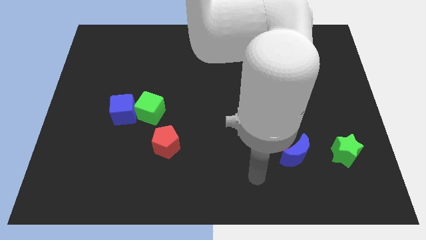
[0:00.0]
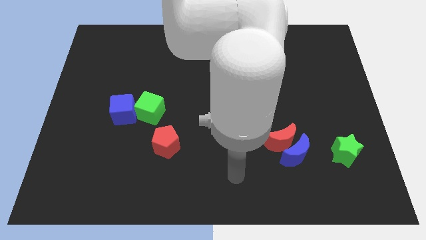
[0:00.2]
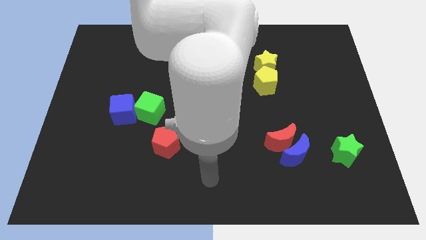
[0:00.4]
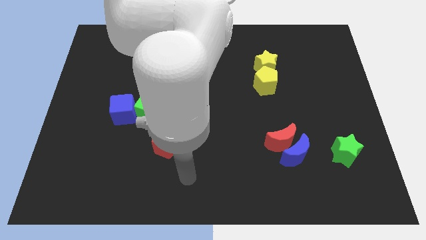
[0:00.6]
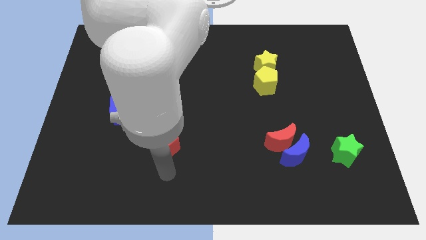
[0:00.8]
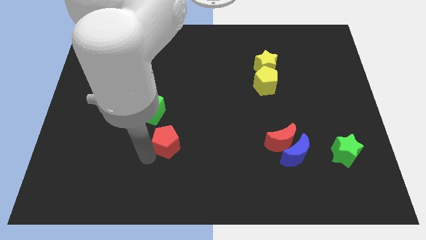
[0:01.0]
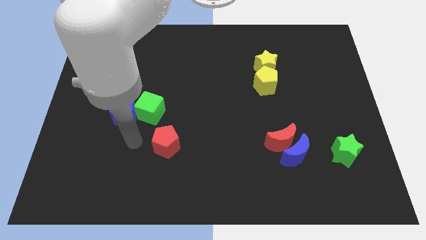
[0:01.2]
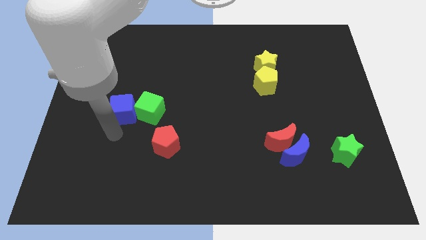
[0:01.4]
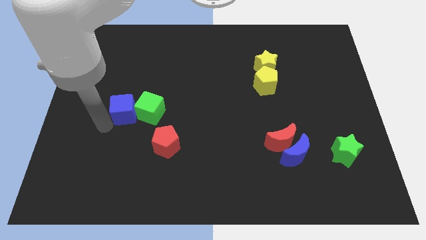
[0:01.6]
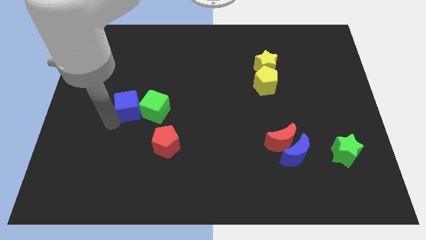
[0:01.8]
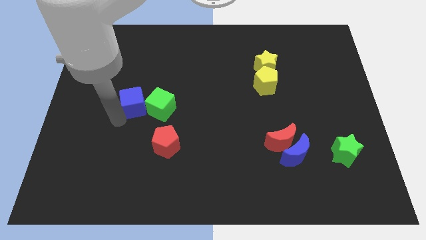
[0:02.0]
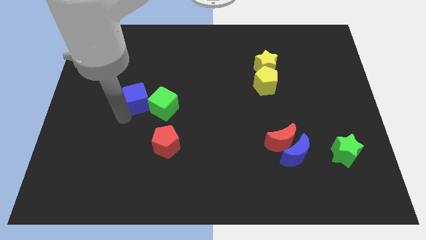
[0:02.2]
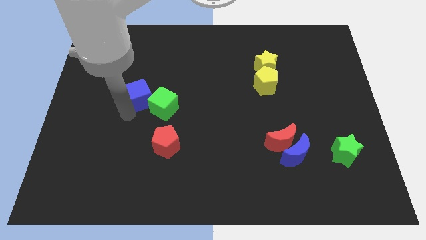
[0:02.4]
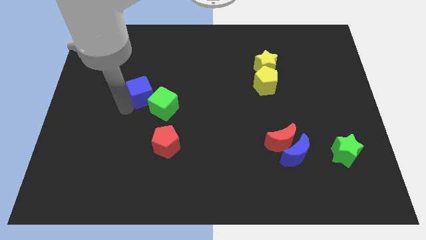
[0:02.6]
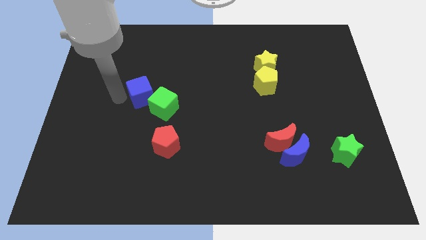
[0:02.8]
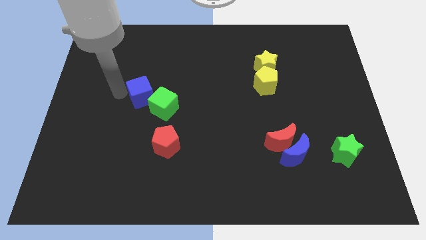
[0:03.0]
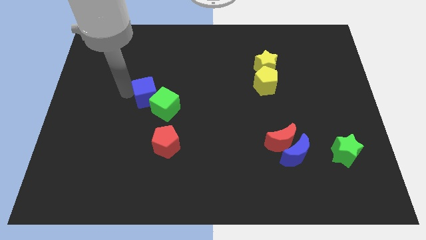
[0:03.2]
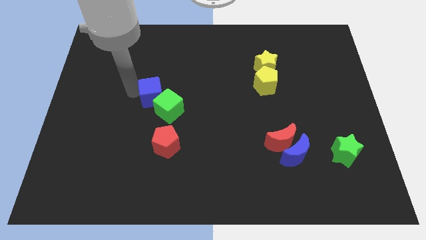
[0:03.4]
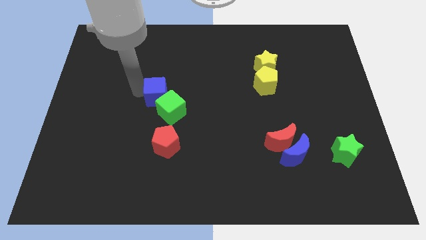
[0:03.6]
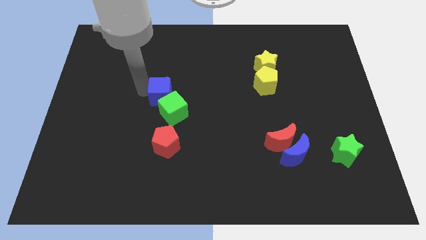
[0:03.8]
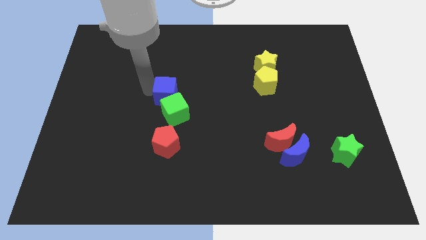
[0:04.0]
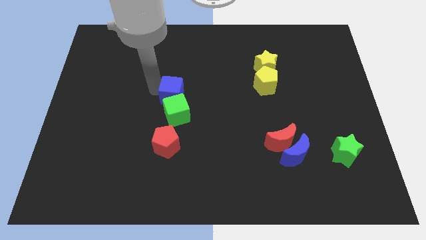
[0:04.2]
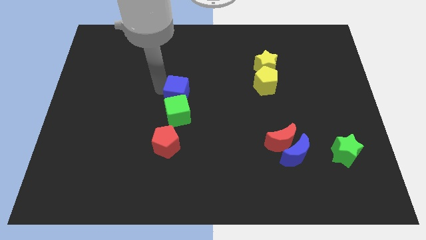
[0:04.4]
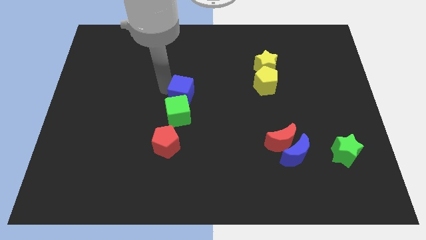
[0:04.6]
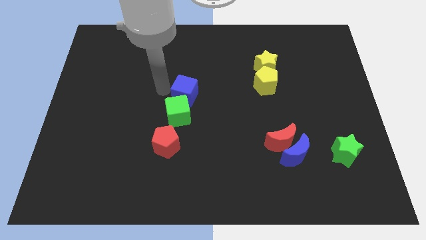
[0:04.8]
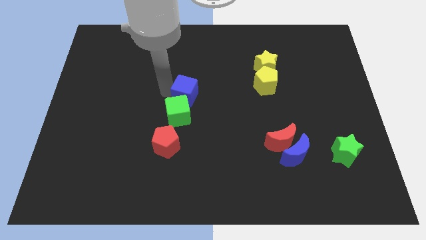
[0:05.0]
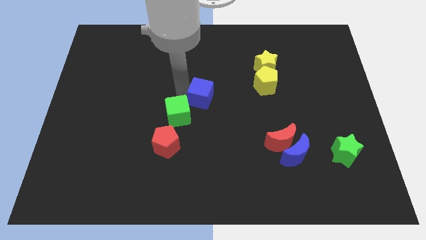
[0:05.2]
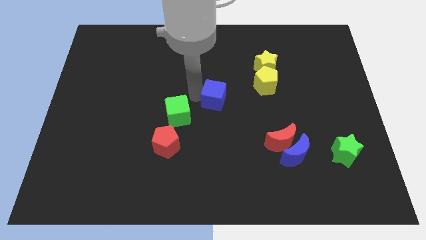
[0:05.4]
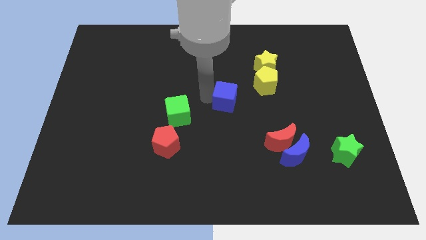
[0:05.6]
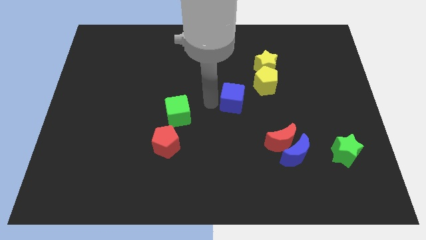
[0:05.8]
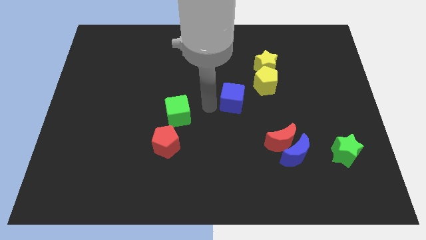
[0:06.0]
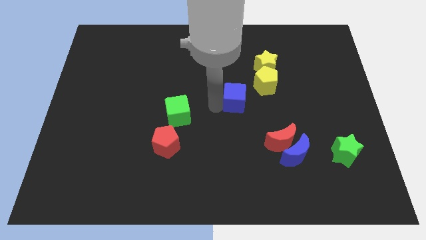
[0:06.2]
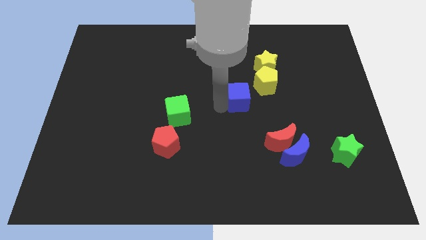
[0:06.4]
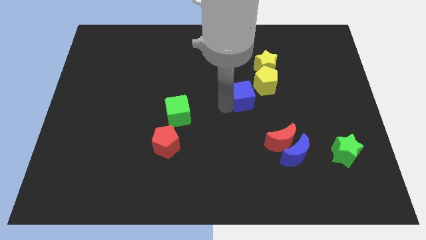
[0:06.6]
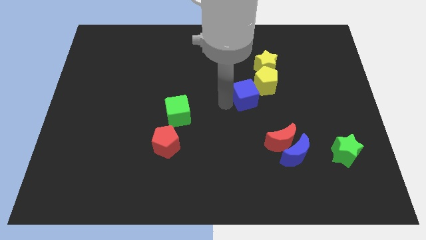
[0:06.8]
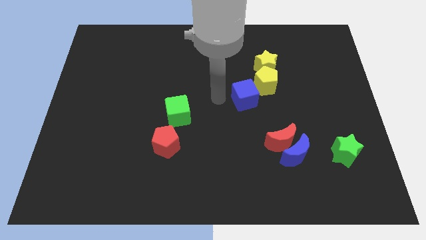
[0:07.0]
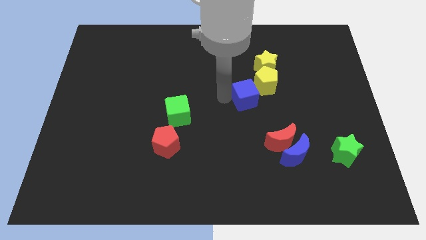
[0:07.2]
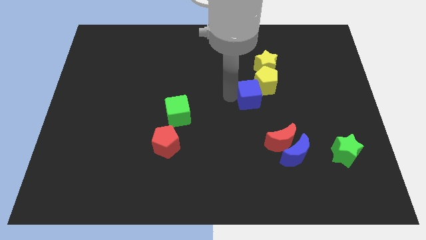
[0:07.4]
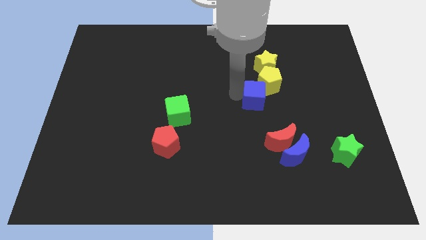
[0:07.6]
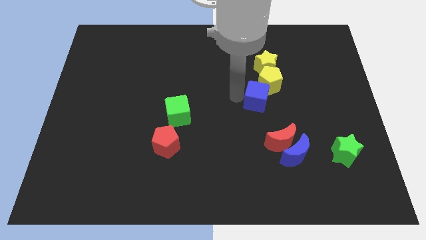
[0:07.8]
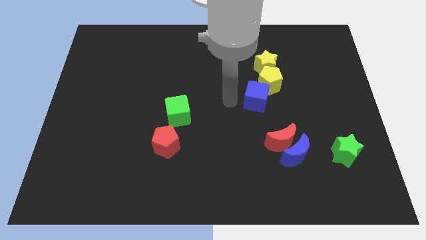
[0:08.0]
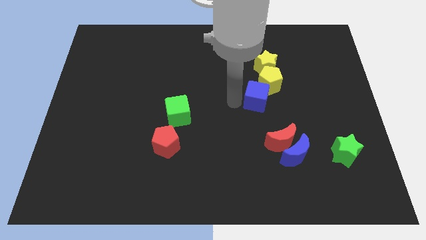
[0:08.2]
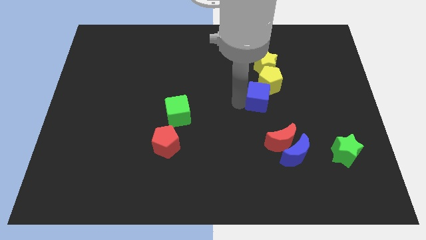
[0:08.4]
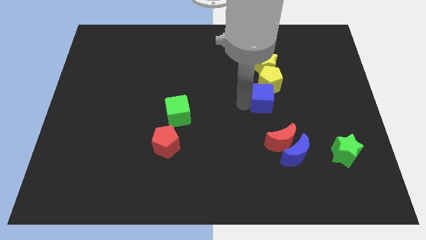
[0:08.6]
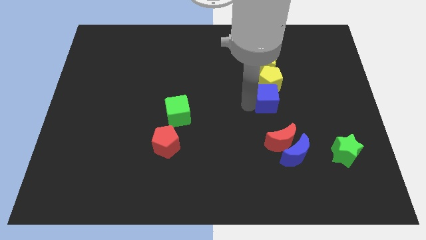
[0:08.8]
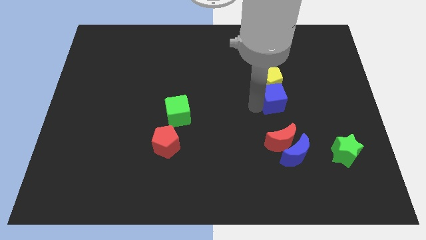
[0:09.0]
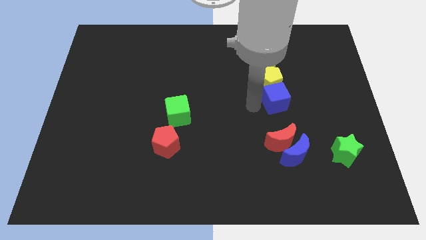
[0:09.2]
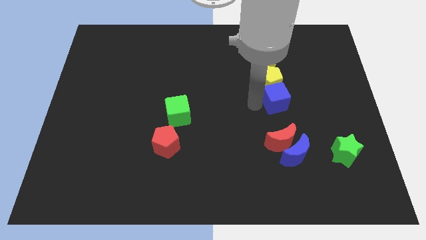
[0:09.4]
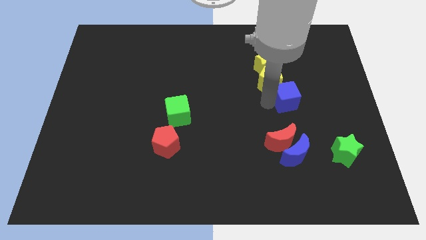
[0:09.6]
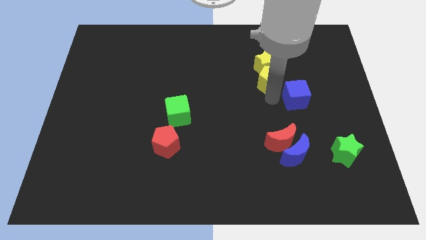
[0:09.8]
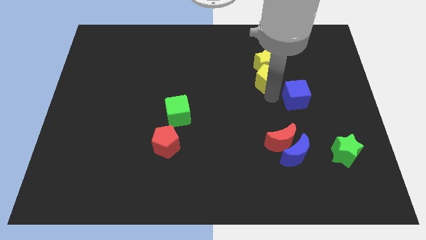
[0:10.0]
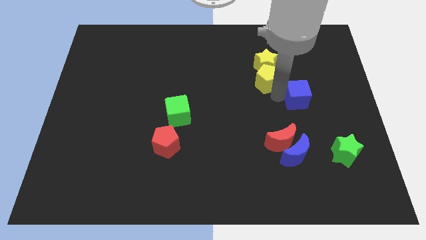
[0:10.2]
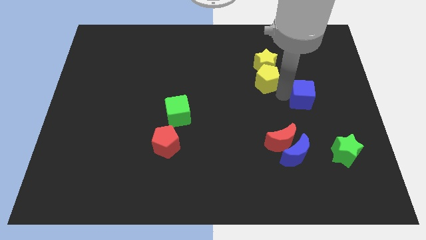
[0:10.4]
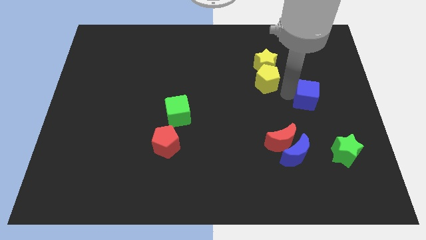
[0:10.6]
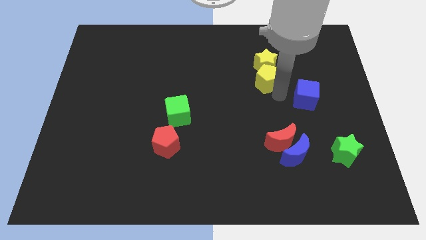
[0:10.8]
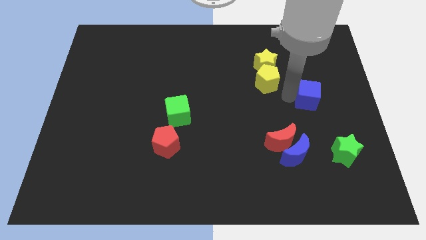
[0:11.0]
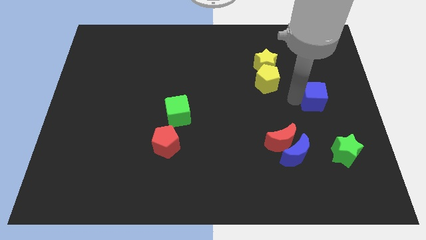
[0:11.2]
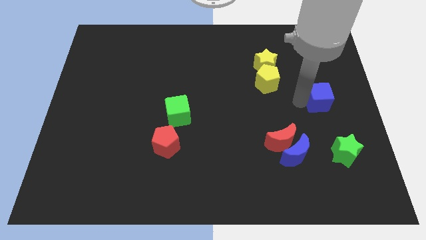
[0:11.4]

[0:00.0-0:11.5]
slide the blue cube to the center right

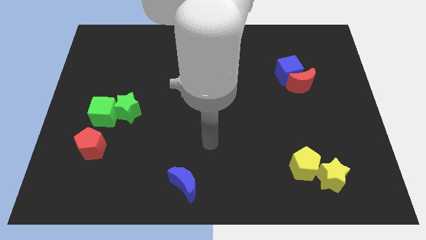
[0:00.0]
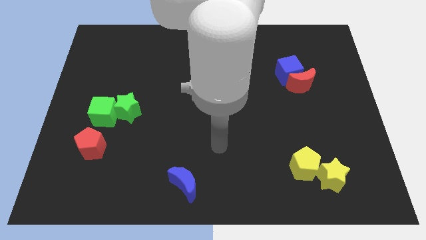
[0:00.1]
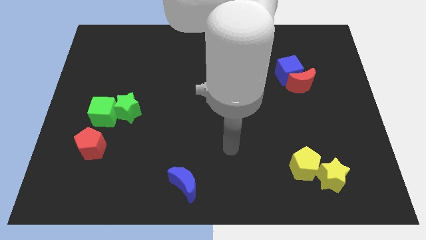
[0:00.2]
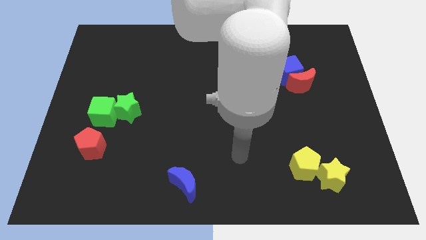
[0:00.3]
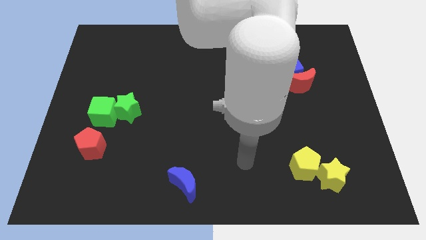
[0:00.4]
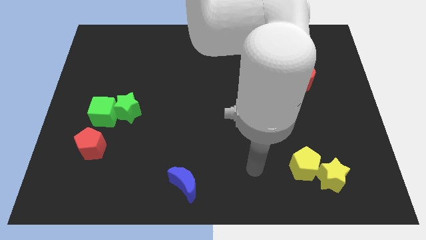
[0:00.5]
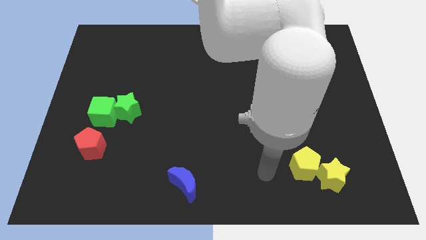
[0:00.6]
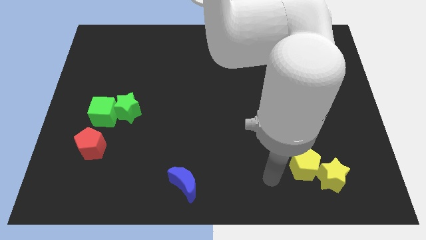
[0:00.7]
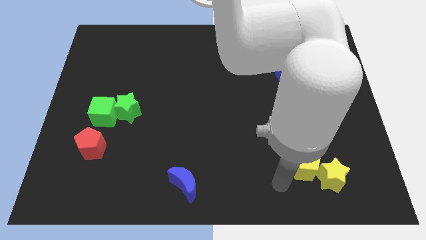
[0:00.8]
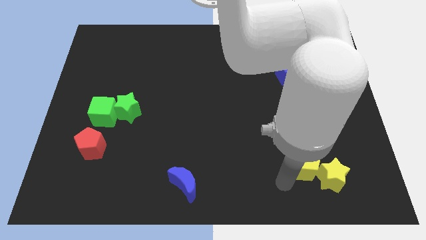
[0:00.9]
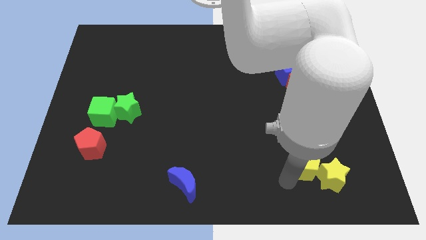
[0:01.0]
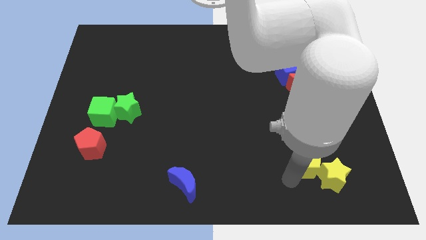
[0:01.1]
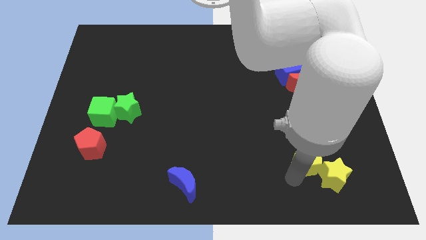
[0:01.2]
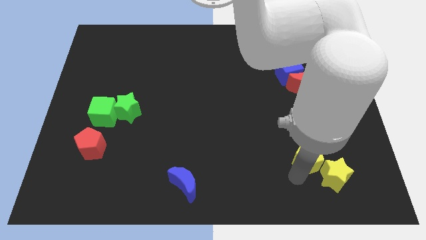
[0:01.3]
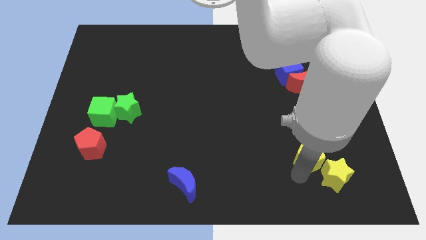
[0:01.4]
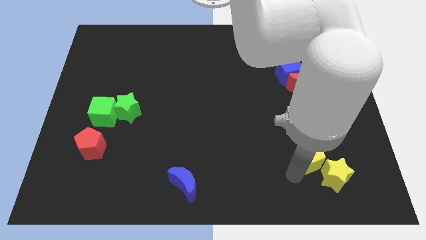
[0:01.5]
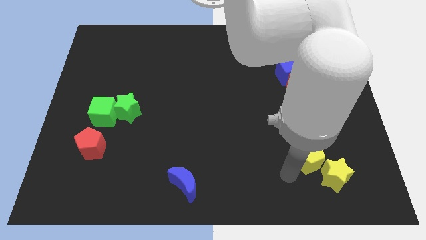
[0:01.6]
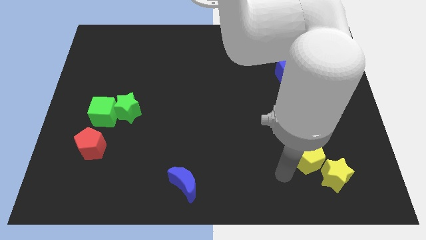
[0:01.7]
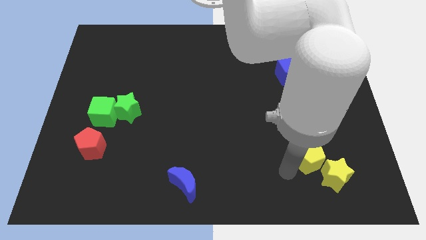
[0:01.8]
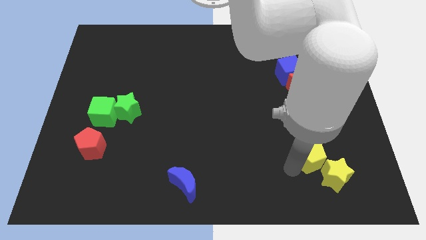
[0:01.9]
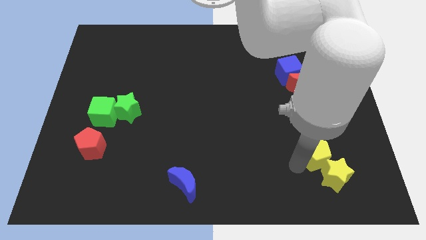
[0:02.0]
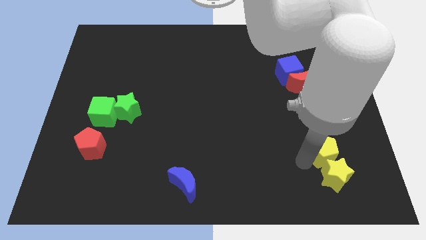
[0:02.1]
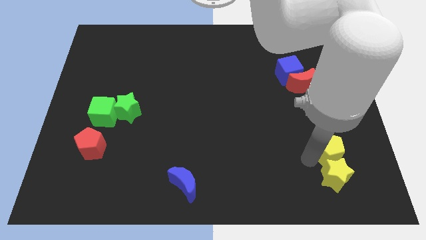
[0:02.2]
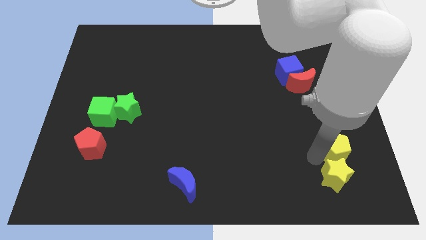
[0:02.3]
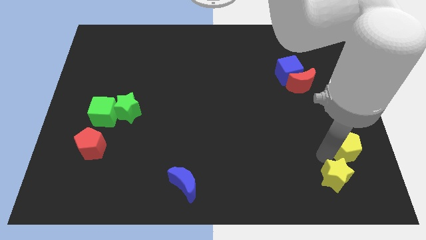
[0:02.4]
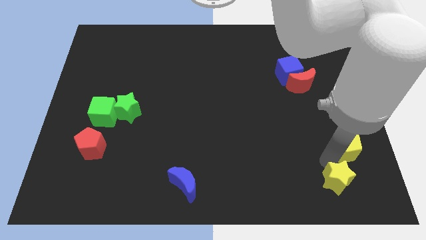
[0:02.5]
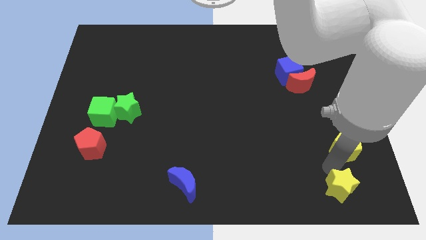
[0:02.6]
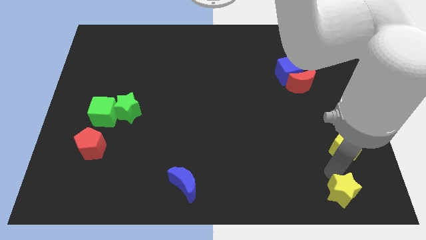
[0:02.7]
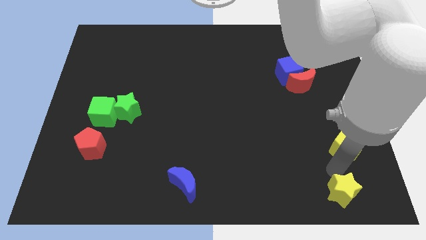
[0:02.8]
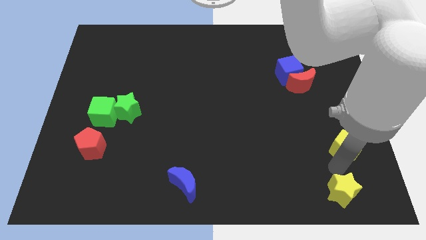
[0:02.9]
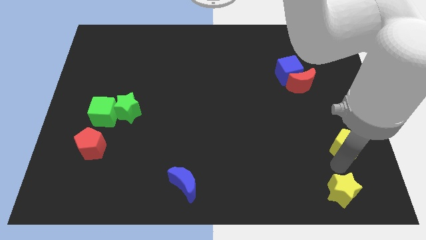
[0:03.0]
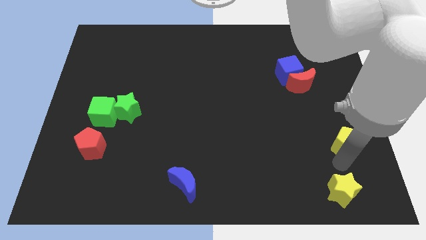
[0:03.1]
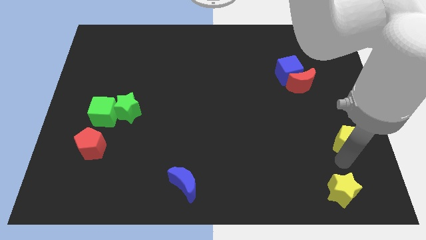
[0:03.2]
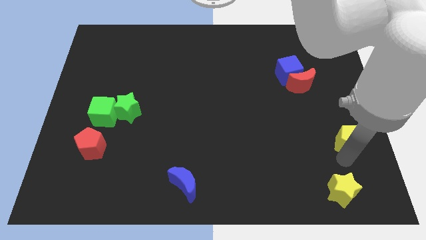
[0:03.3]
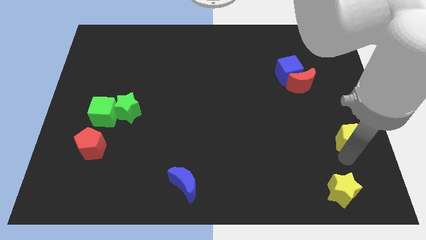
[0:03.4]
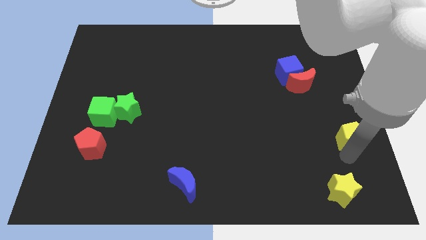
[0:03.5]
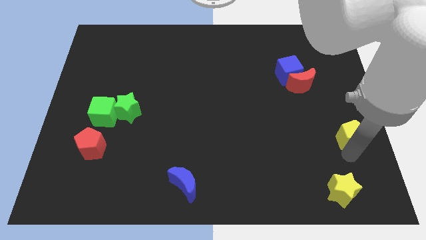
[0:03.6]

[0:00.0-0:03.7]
push the yellow pentagon to the center right
